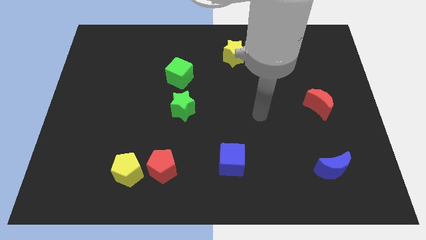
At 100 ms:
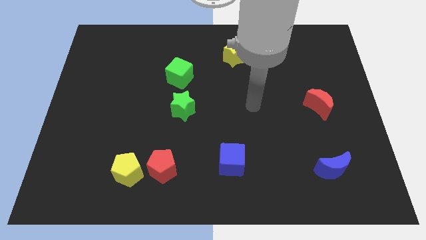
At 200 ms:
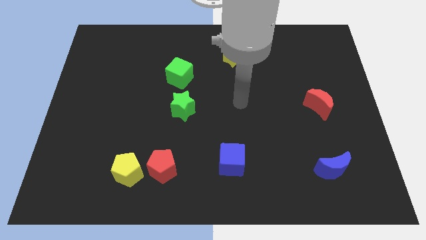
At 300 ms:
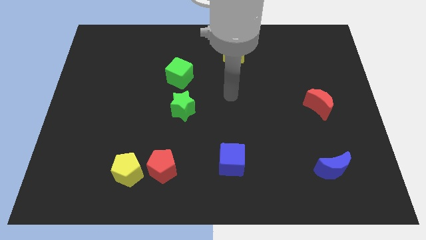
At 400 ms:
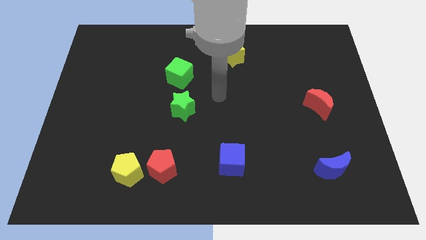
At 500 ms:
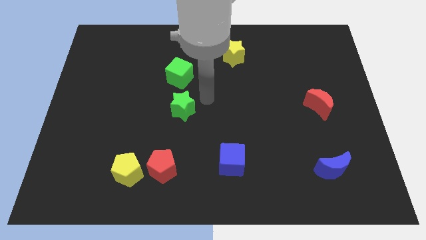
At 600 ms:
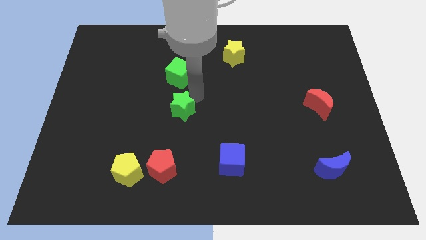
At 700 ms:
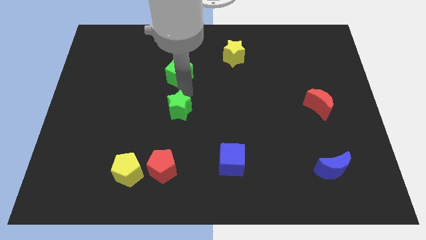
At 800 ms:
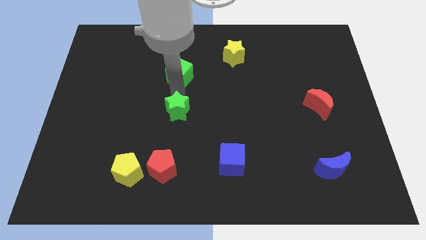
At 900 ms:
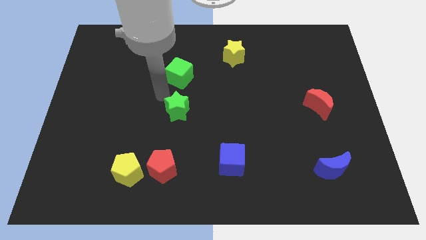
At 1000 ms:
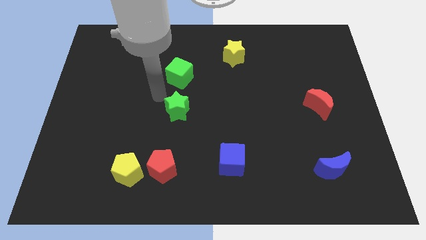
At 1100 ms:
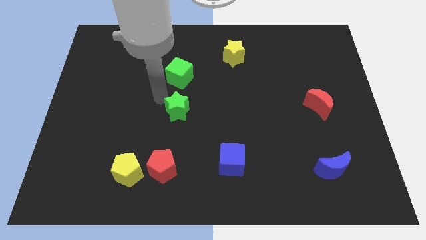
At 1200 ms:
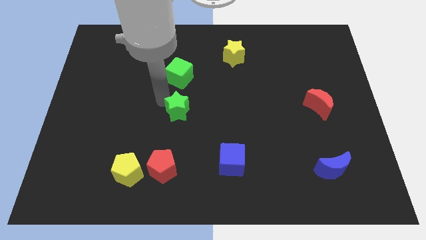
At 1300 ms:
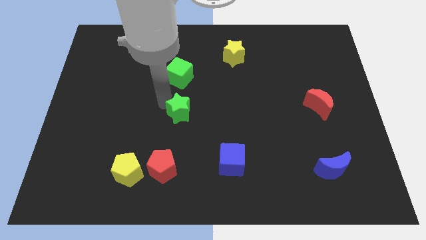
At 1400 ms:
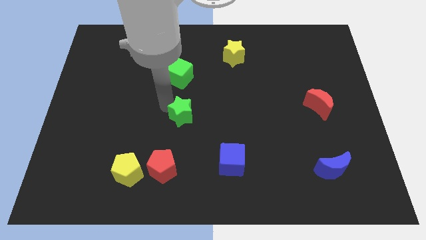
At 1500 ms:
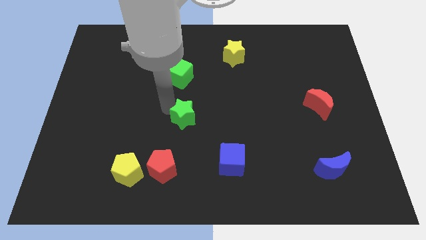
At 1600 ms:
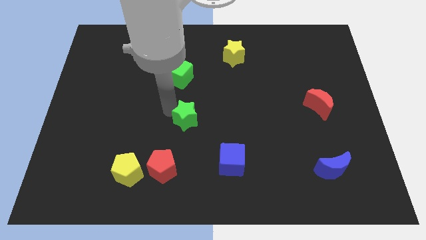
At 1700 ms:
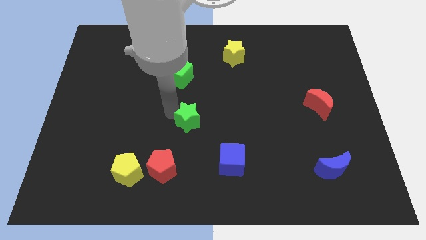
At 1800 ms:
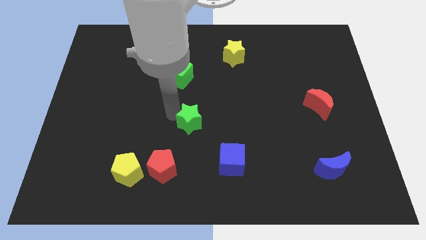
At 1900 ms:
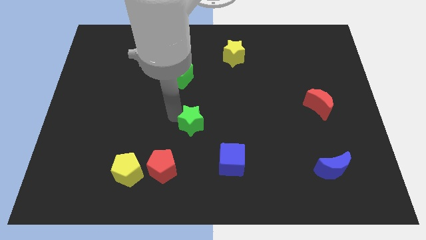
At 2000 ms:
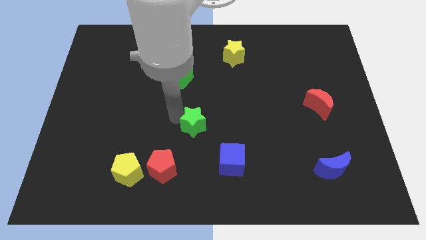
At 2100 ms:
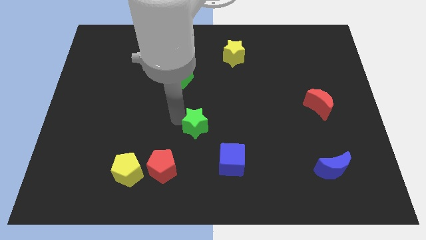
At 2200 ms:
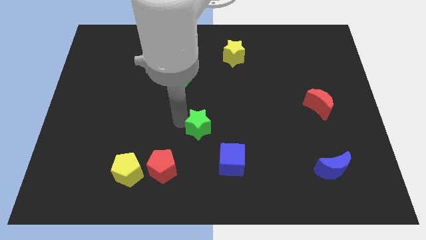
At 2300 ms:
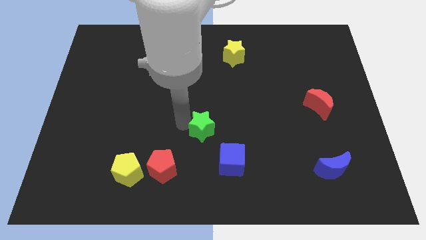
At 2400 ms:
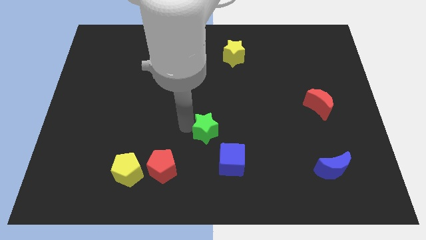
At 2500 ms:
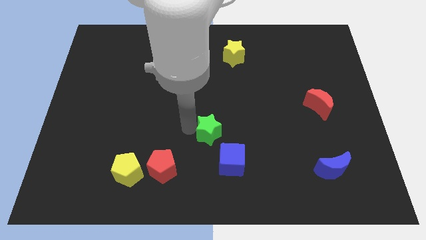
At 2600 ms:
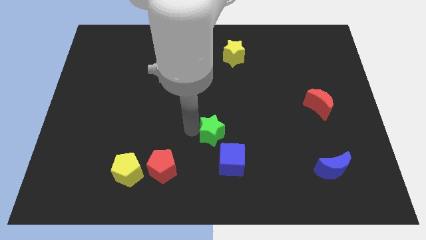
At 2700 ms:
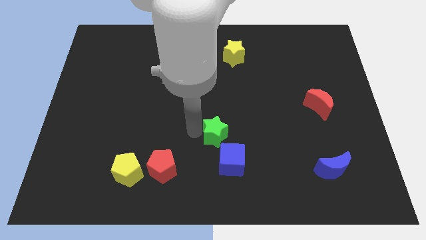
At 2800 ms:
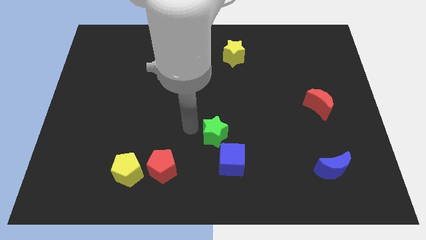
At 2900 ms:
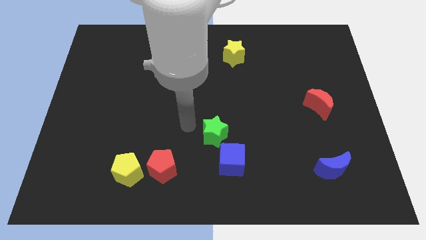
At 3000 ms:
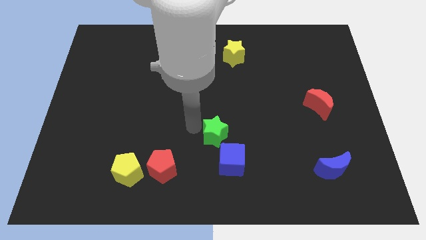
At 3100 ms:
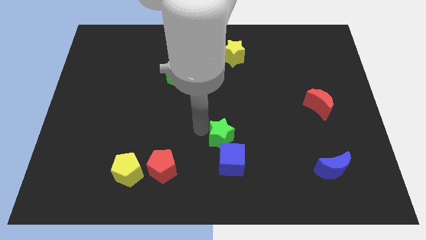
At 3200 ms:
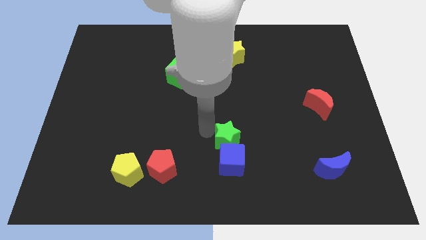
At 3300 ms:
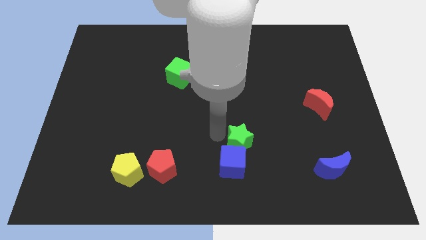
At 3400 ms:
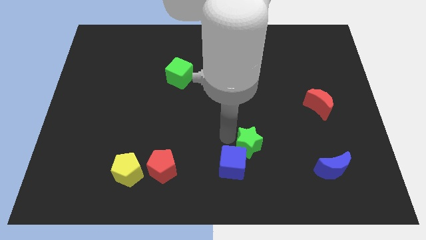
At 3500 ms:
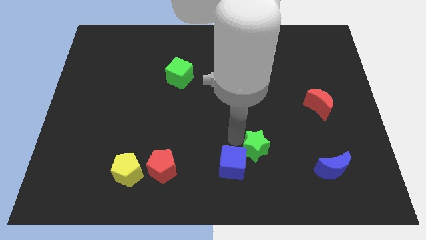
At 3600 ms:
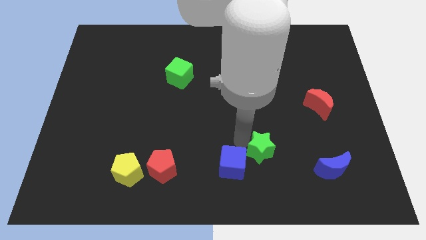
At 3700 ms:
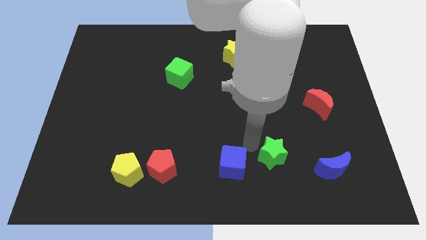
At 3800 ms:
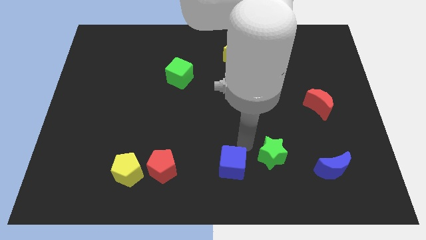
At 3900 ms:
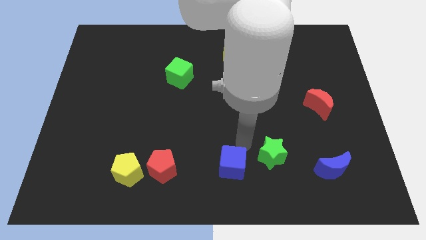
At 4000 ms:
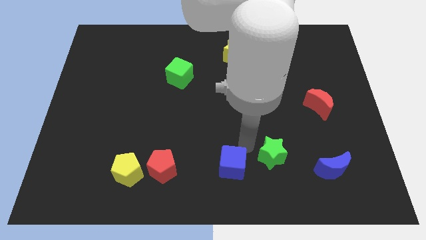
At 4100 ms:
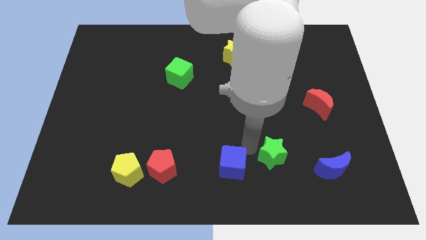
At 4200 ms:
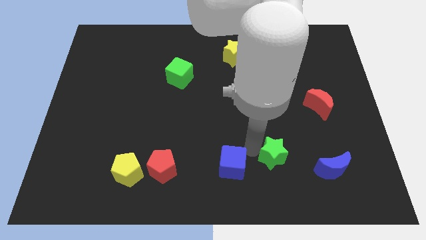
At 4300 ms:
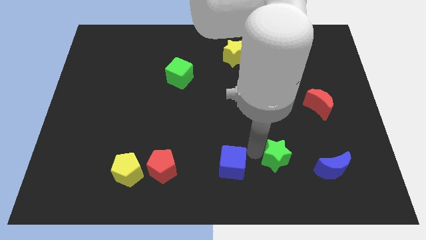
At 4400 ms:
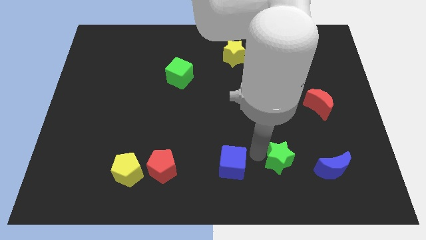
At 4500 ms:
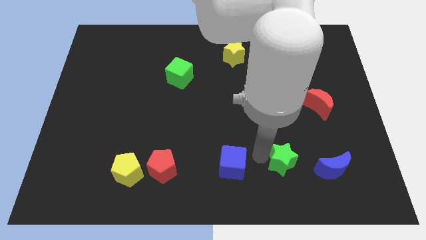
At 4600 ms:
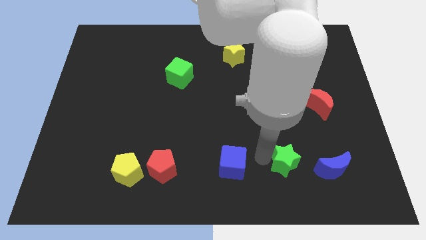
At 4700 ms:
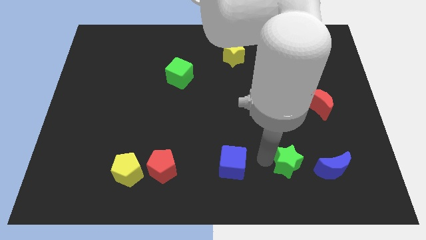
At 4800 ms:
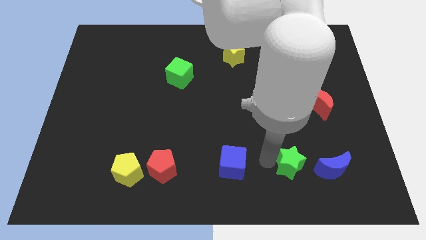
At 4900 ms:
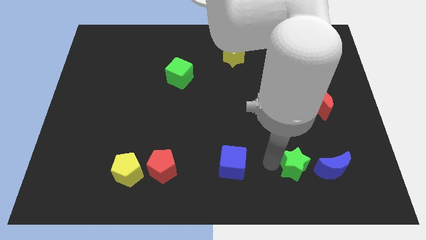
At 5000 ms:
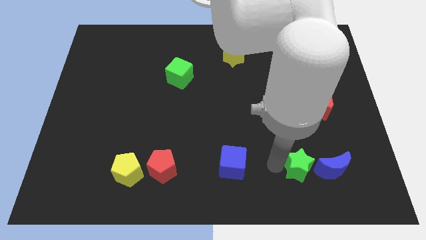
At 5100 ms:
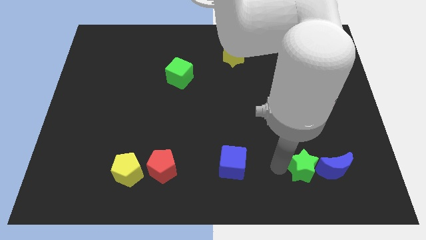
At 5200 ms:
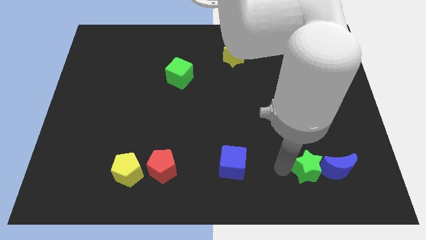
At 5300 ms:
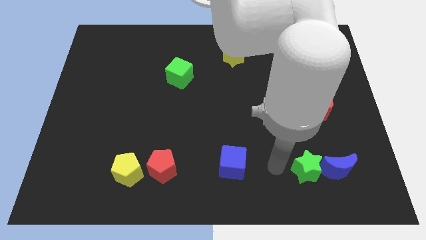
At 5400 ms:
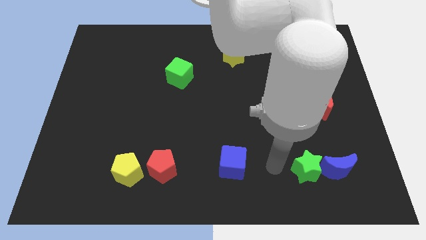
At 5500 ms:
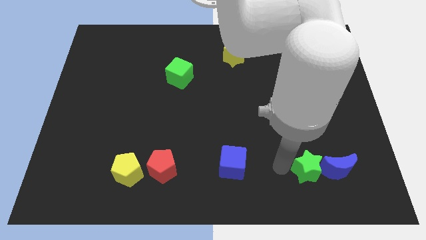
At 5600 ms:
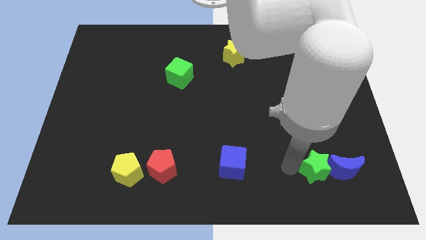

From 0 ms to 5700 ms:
move the green star next to the blue moon

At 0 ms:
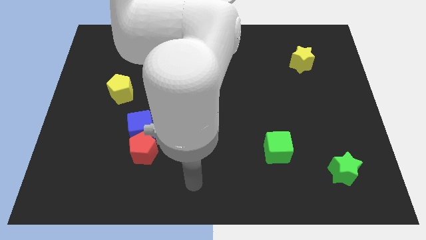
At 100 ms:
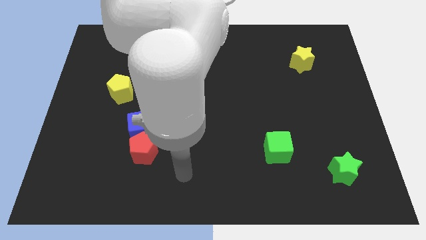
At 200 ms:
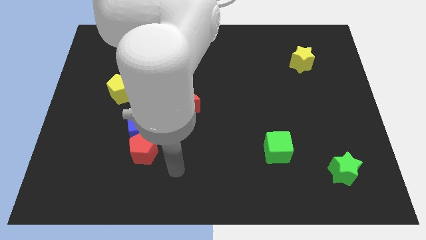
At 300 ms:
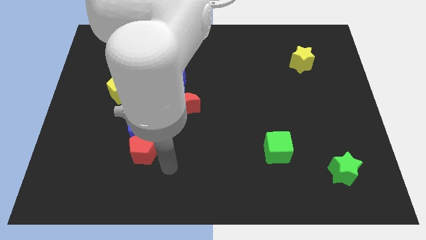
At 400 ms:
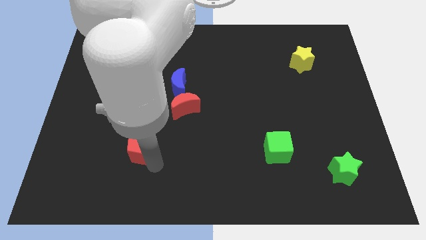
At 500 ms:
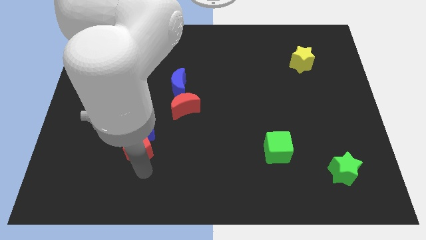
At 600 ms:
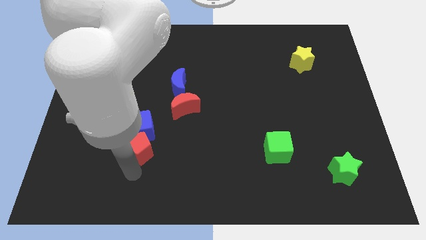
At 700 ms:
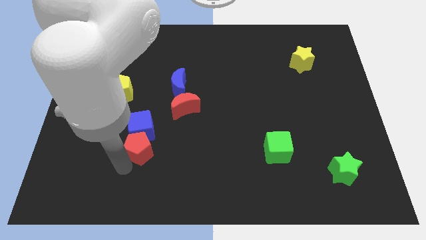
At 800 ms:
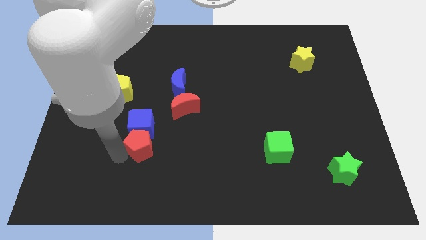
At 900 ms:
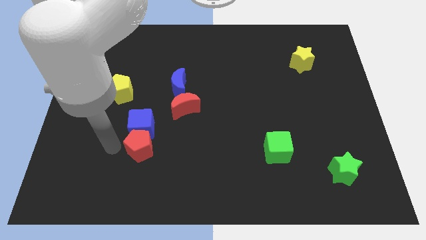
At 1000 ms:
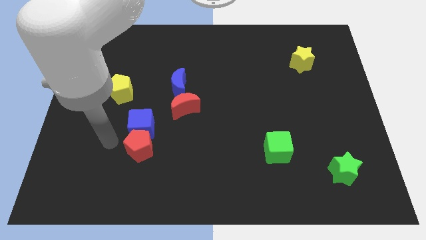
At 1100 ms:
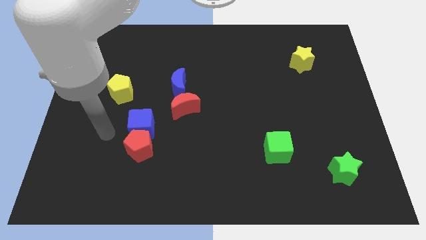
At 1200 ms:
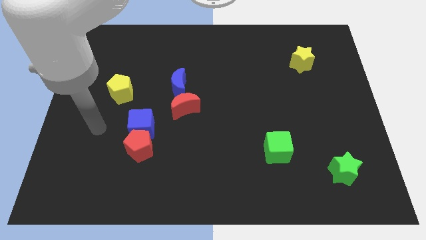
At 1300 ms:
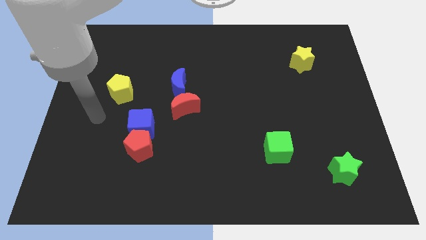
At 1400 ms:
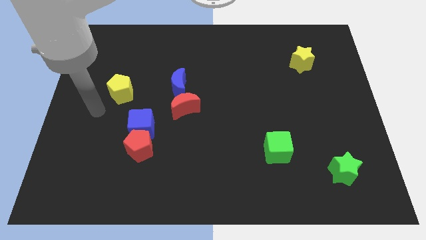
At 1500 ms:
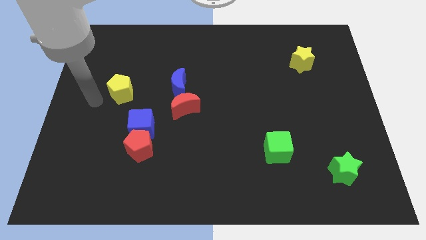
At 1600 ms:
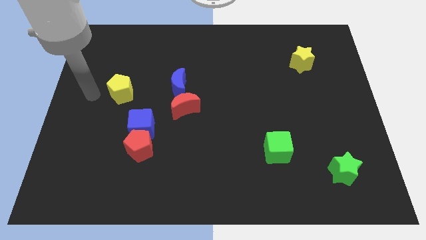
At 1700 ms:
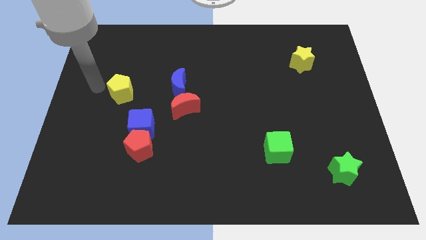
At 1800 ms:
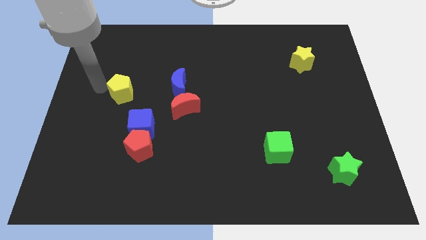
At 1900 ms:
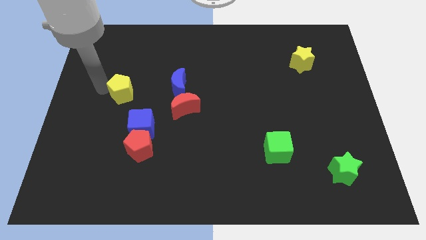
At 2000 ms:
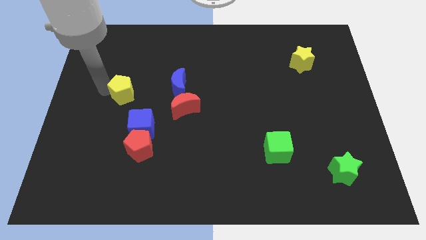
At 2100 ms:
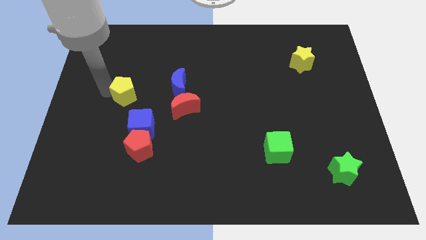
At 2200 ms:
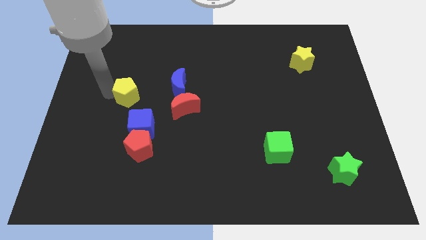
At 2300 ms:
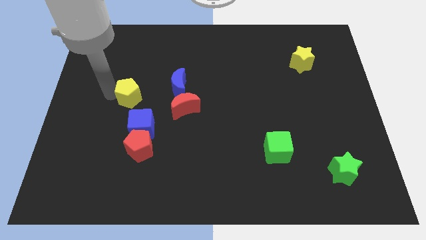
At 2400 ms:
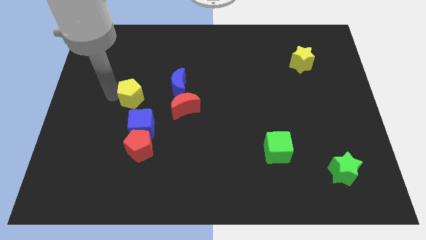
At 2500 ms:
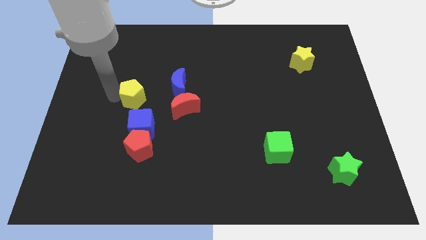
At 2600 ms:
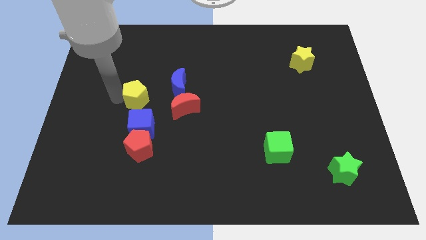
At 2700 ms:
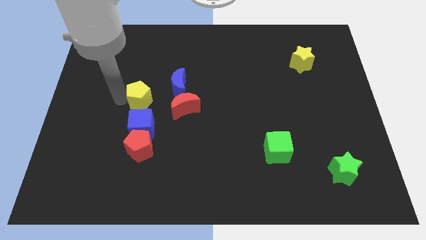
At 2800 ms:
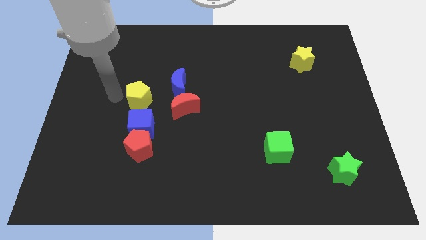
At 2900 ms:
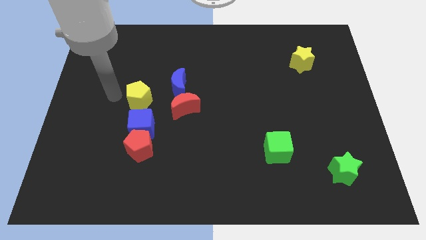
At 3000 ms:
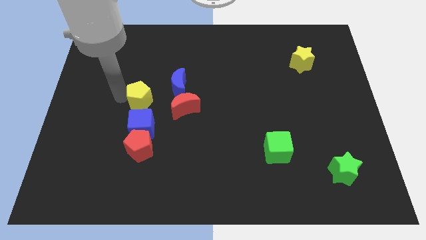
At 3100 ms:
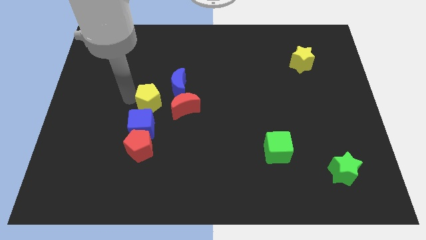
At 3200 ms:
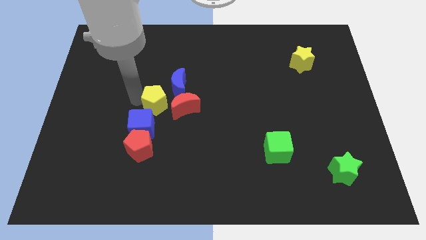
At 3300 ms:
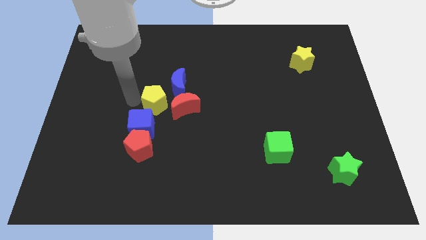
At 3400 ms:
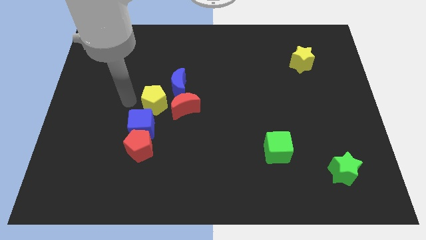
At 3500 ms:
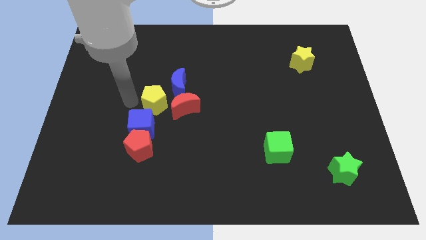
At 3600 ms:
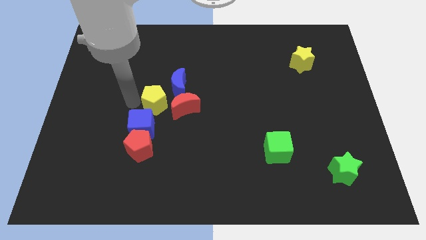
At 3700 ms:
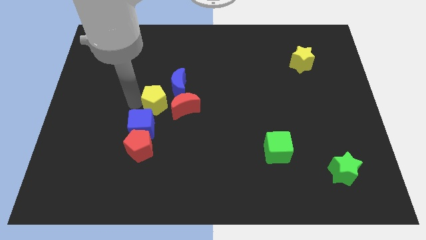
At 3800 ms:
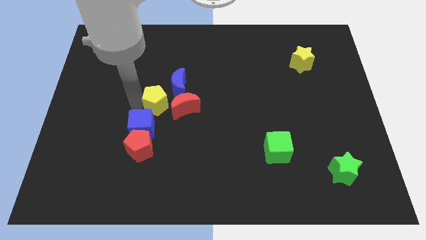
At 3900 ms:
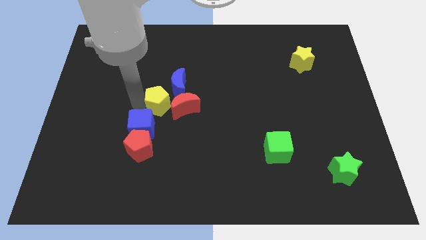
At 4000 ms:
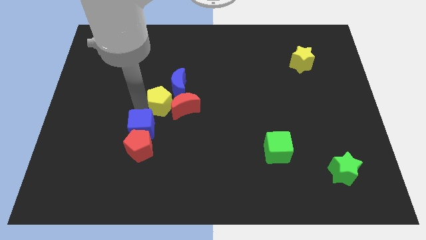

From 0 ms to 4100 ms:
move the yellow pentagon next to the red moon
